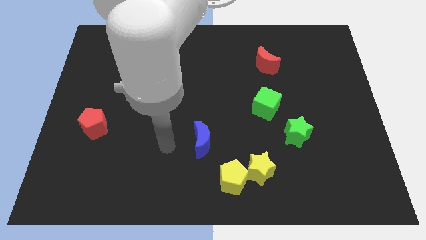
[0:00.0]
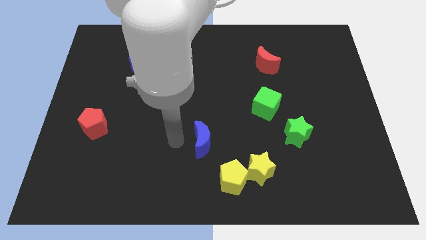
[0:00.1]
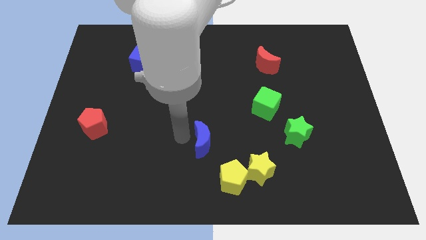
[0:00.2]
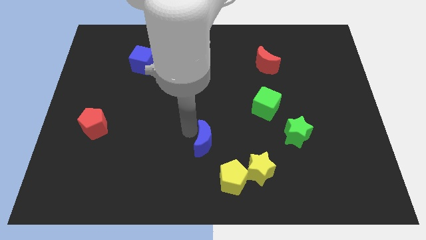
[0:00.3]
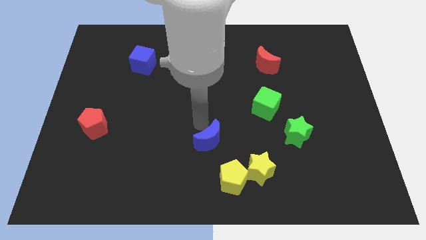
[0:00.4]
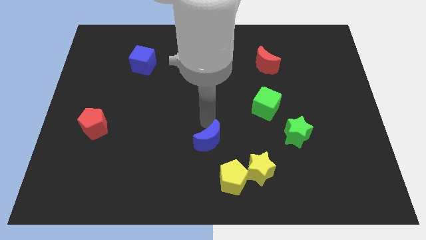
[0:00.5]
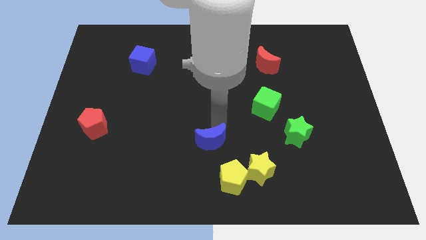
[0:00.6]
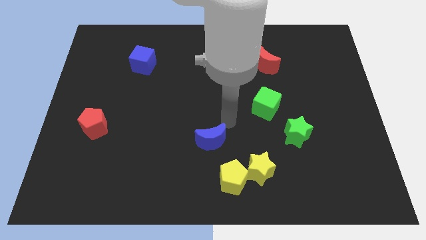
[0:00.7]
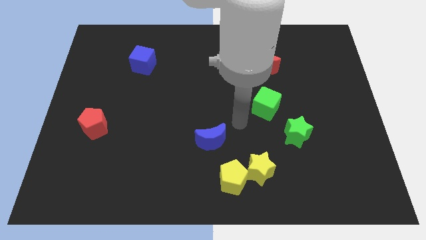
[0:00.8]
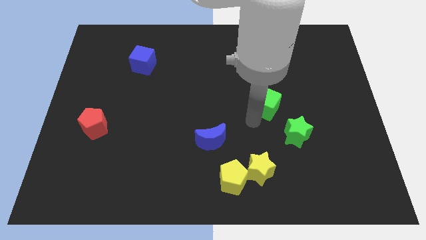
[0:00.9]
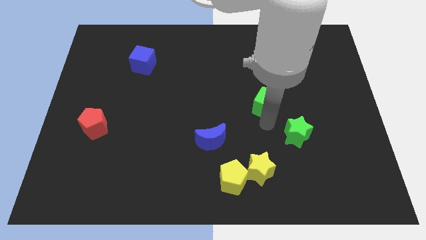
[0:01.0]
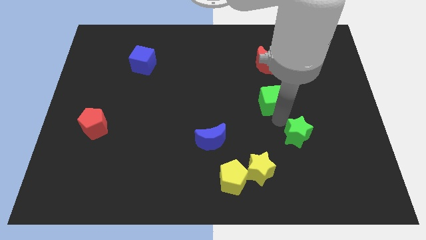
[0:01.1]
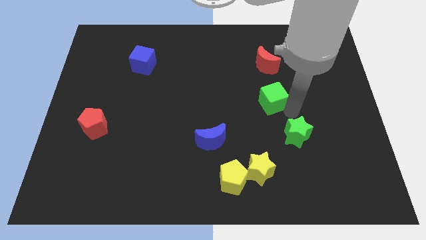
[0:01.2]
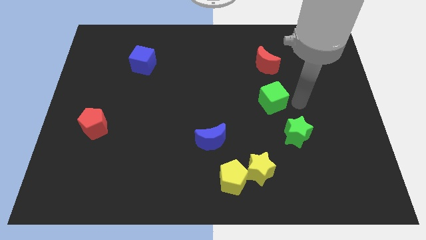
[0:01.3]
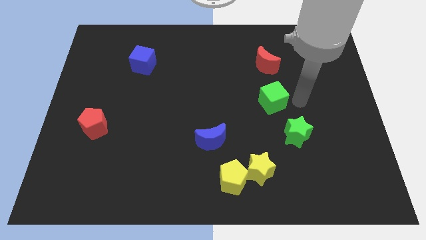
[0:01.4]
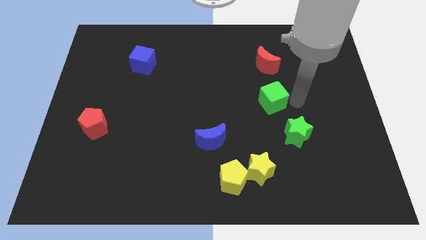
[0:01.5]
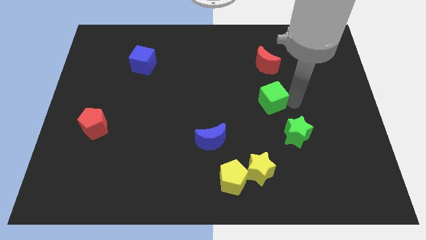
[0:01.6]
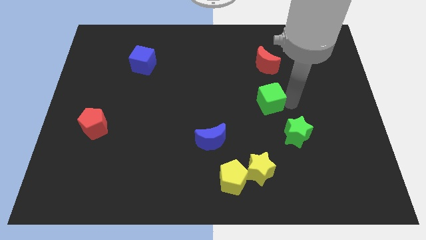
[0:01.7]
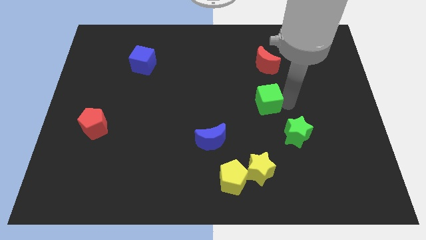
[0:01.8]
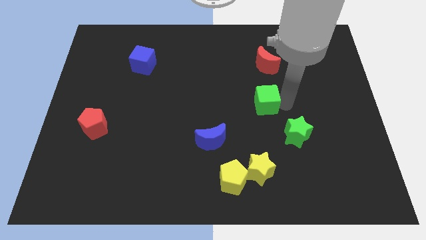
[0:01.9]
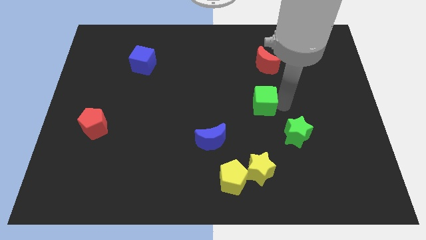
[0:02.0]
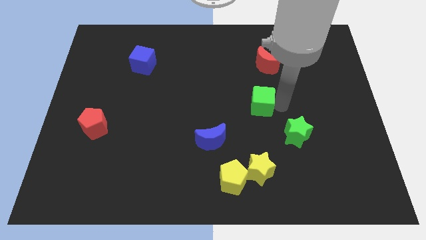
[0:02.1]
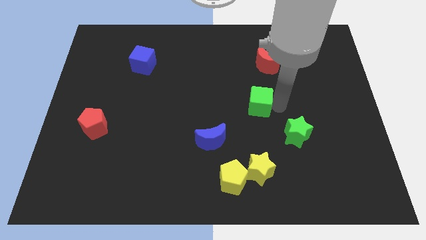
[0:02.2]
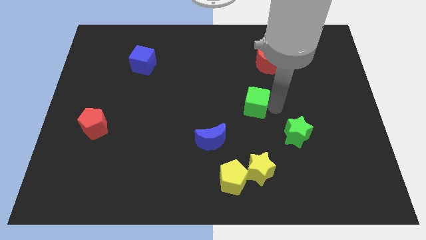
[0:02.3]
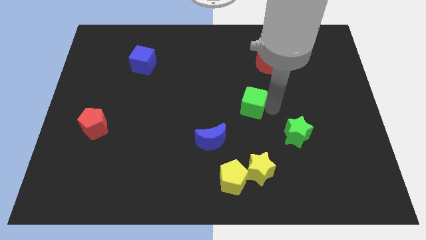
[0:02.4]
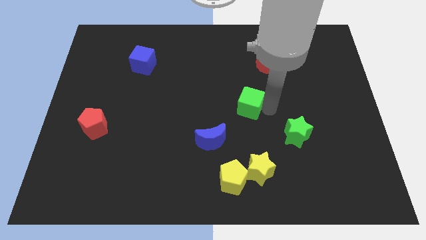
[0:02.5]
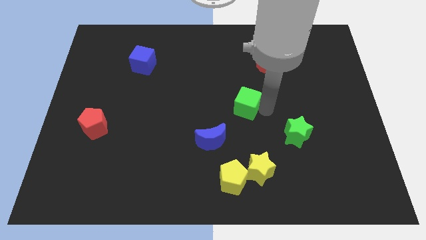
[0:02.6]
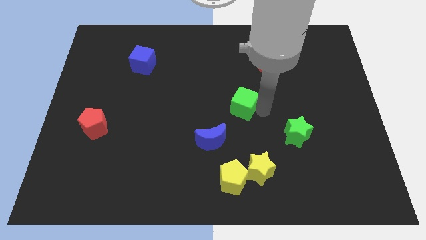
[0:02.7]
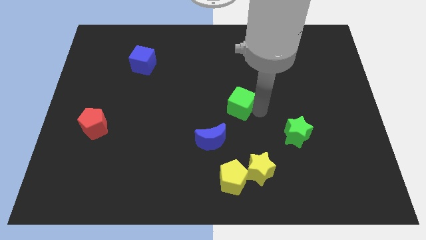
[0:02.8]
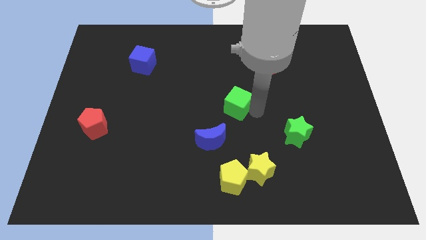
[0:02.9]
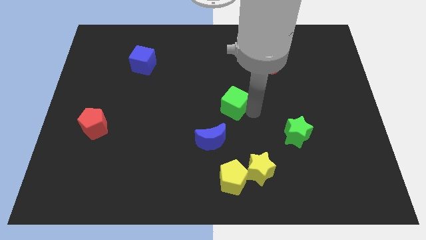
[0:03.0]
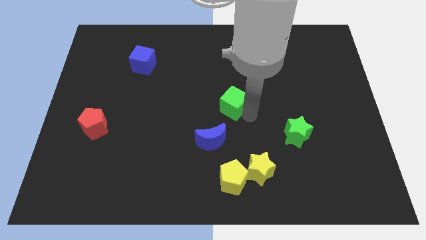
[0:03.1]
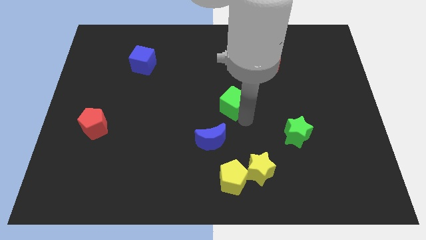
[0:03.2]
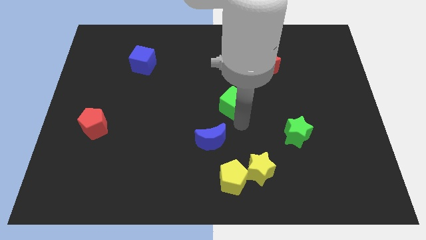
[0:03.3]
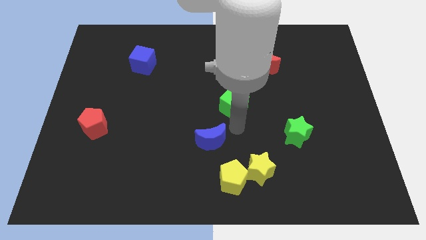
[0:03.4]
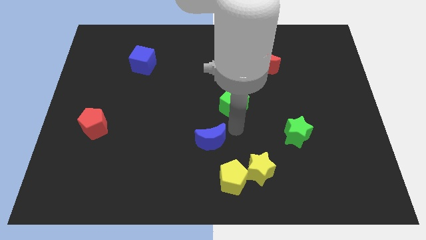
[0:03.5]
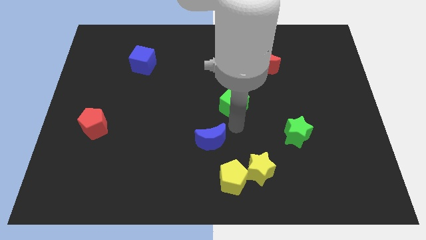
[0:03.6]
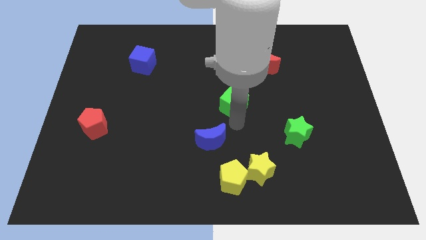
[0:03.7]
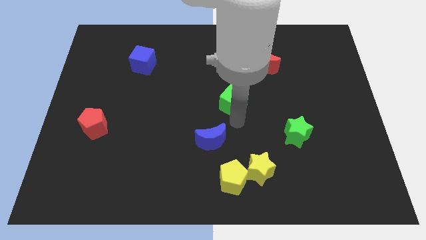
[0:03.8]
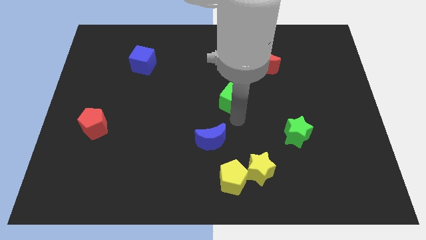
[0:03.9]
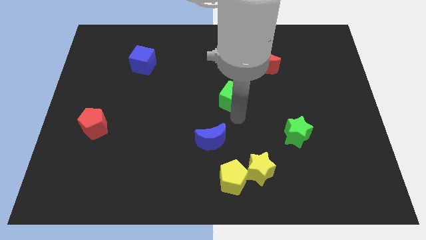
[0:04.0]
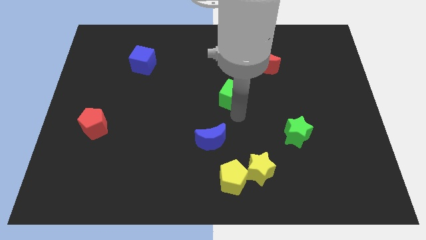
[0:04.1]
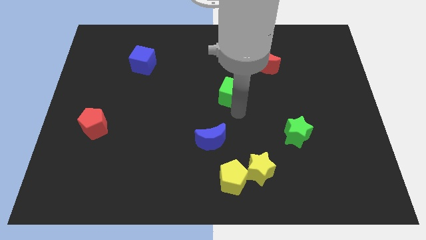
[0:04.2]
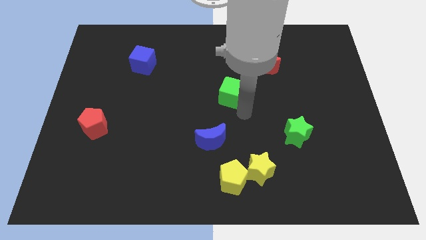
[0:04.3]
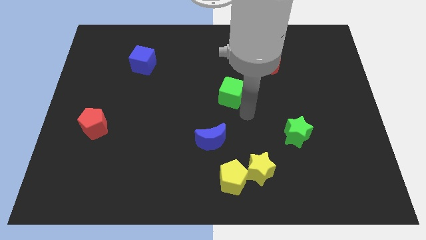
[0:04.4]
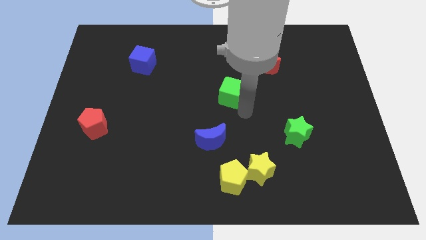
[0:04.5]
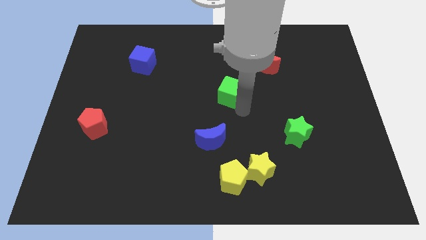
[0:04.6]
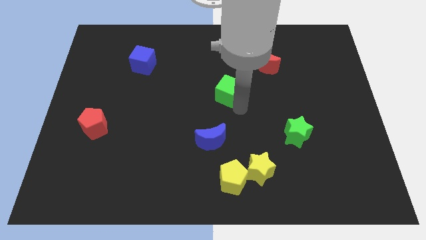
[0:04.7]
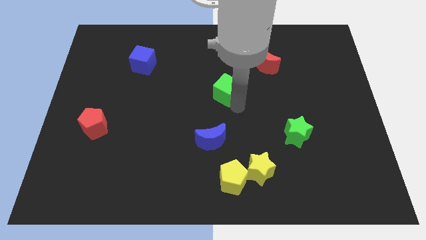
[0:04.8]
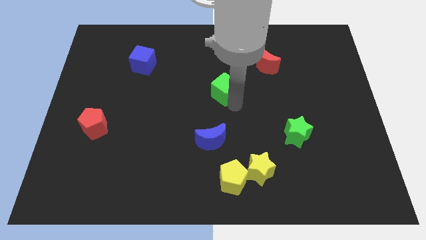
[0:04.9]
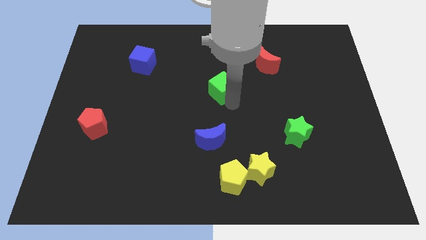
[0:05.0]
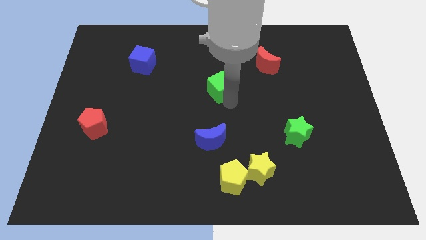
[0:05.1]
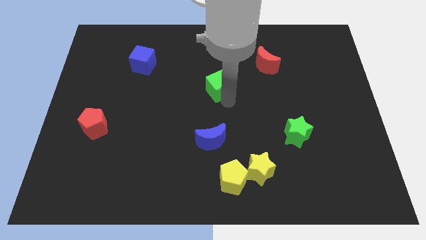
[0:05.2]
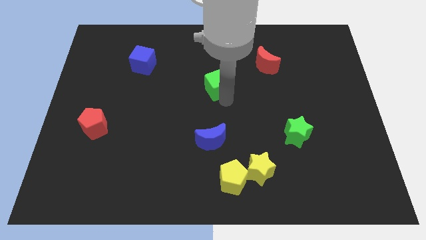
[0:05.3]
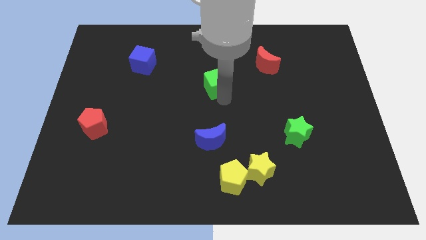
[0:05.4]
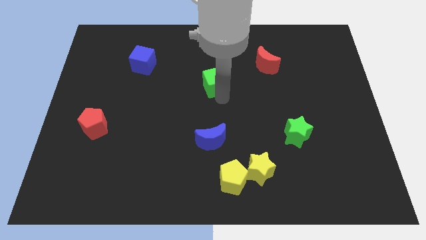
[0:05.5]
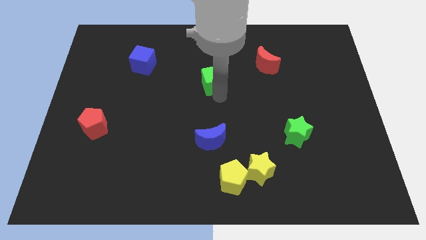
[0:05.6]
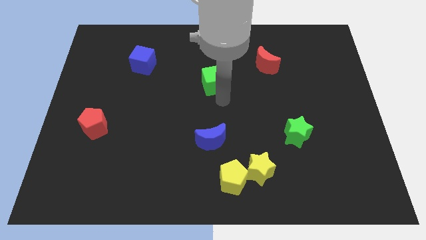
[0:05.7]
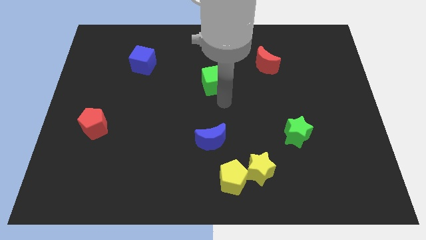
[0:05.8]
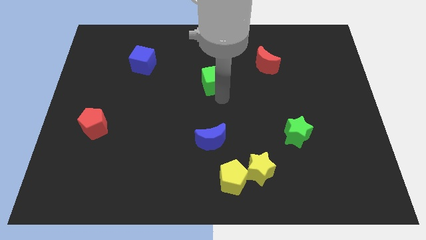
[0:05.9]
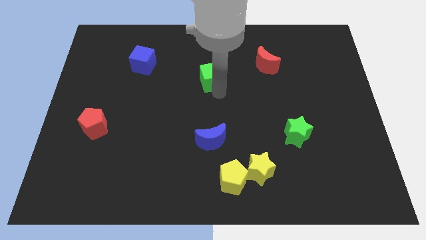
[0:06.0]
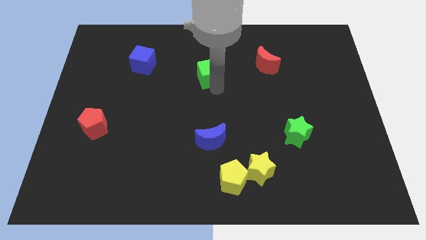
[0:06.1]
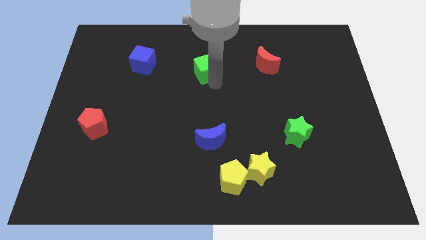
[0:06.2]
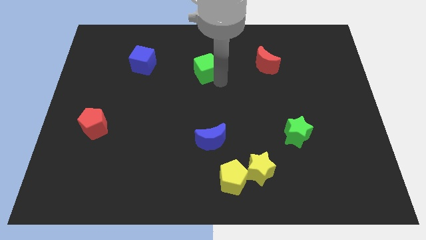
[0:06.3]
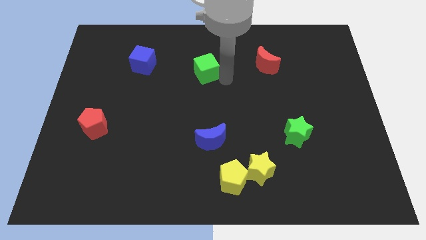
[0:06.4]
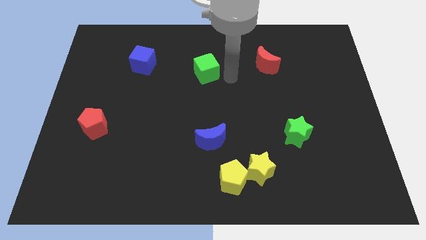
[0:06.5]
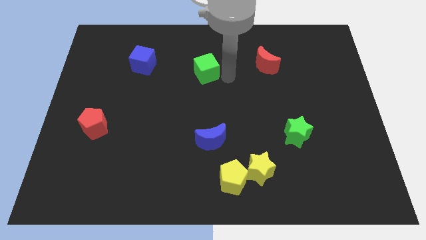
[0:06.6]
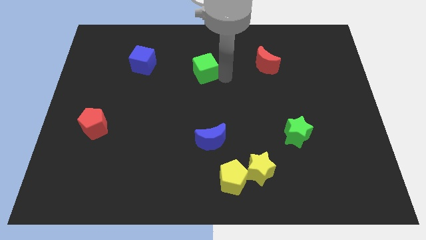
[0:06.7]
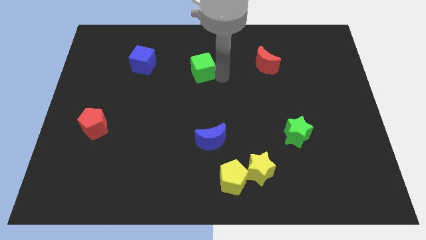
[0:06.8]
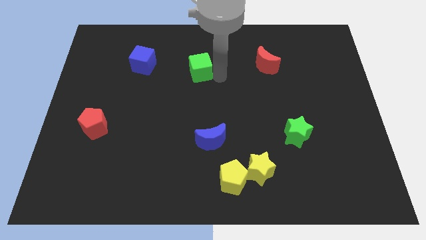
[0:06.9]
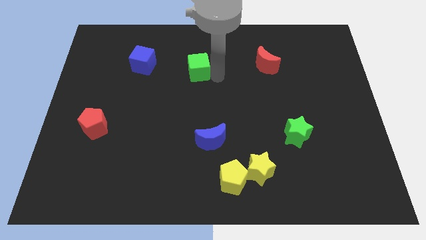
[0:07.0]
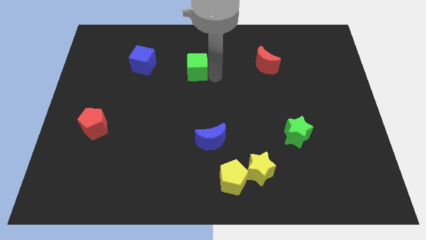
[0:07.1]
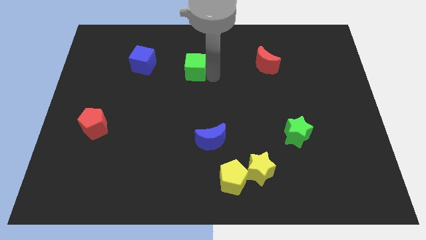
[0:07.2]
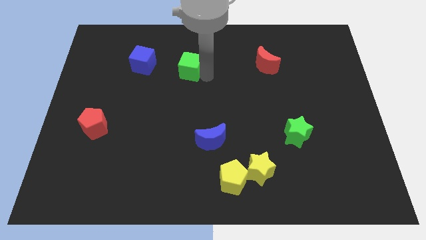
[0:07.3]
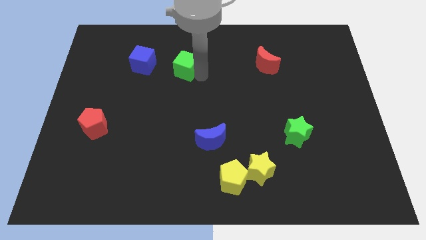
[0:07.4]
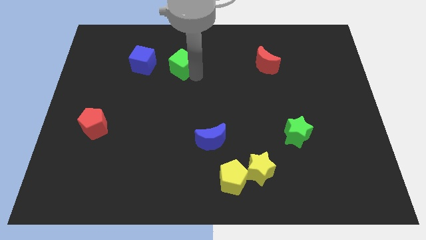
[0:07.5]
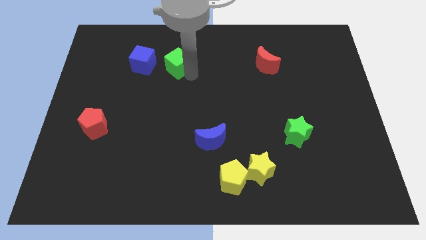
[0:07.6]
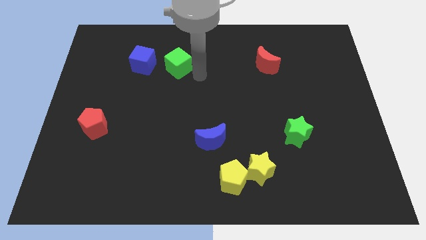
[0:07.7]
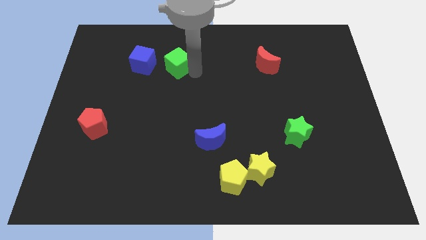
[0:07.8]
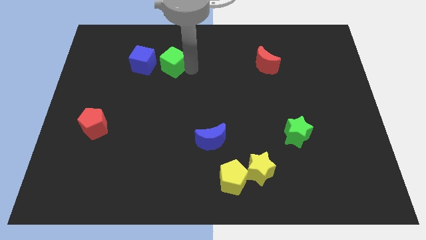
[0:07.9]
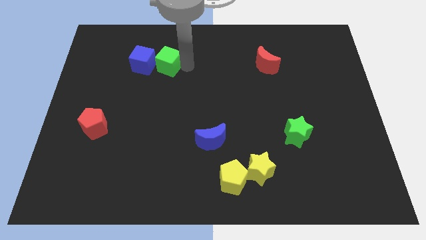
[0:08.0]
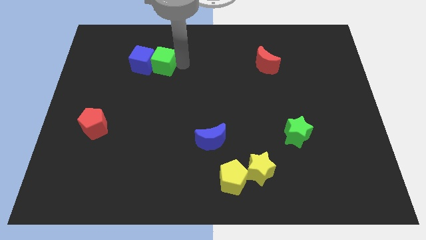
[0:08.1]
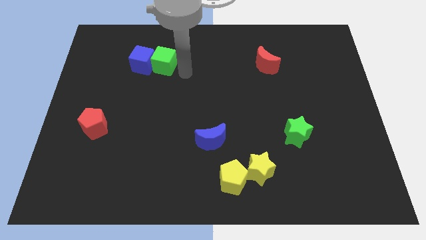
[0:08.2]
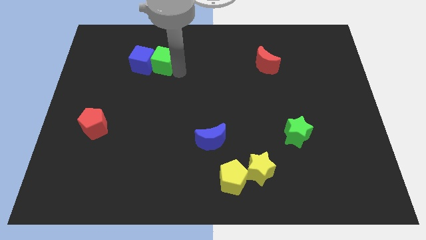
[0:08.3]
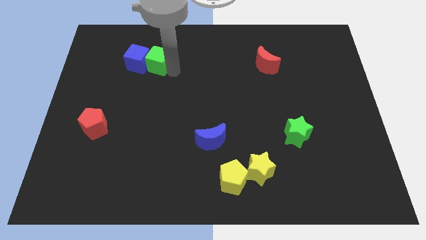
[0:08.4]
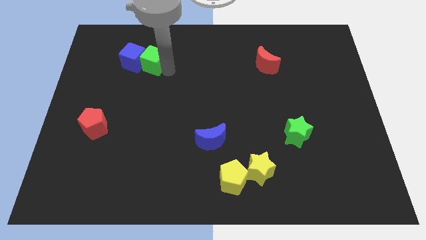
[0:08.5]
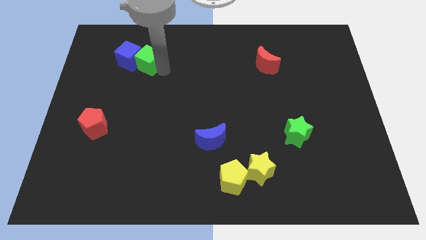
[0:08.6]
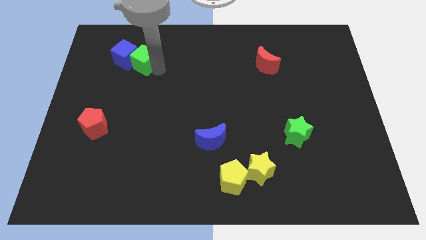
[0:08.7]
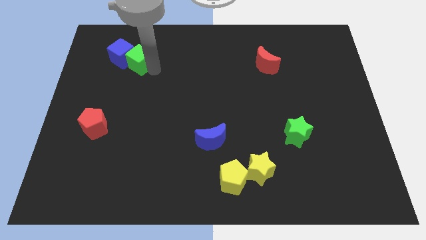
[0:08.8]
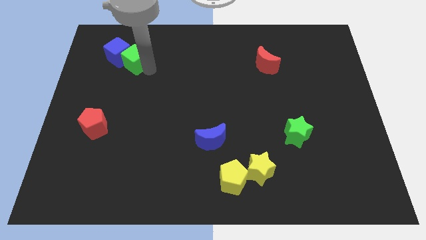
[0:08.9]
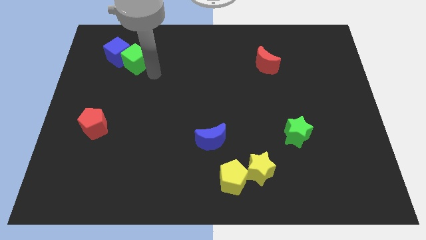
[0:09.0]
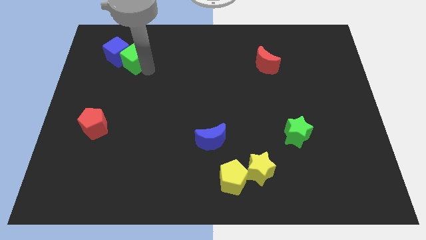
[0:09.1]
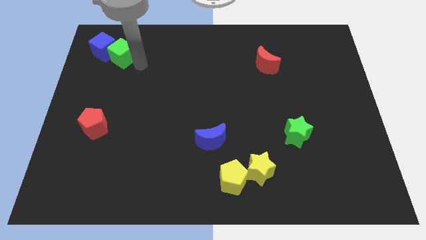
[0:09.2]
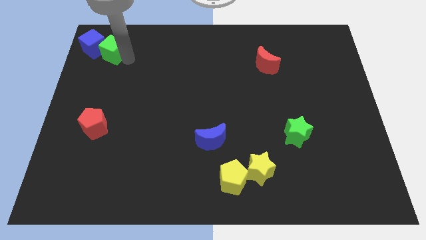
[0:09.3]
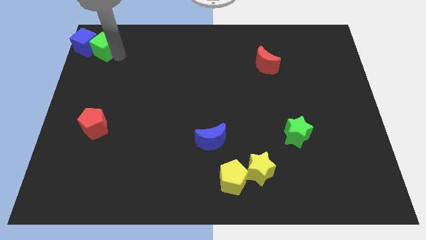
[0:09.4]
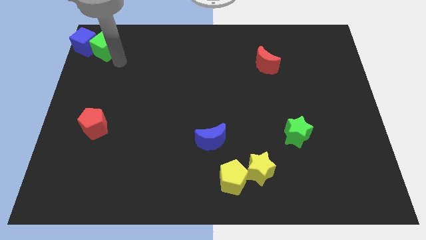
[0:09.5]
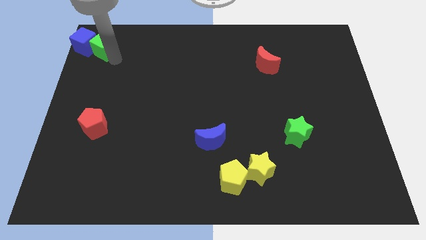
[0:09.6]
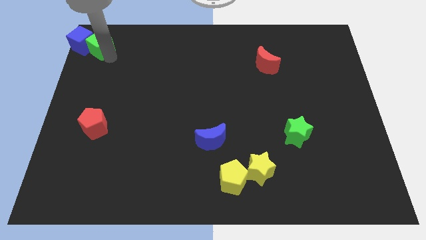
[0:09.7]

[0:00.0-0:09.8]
slide the green cube to the upper left corner
